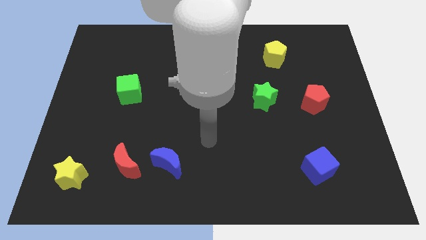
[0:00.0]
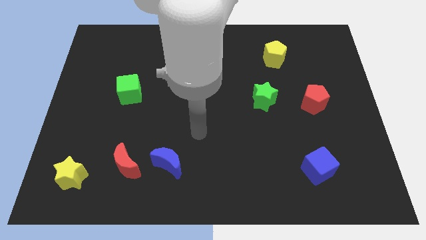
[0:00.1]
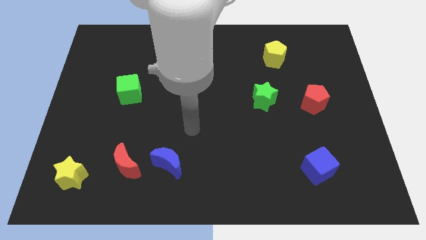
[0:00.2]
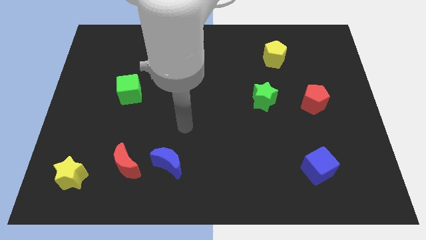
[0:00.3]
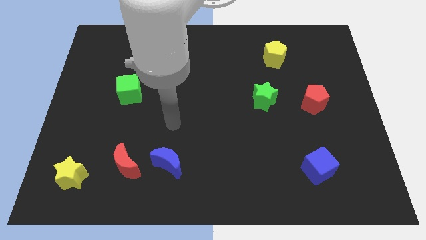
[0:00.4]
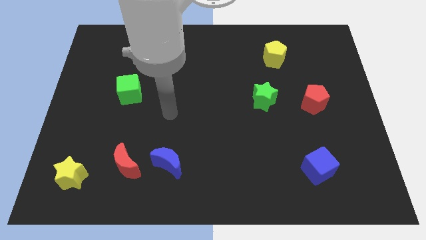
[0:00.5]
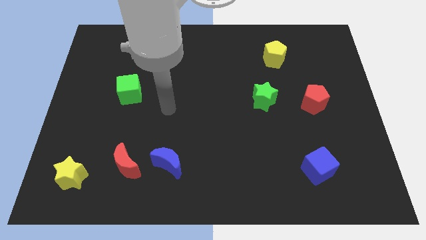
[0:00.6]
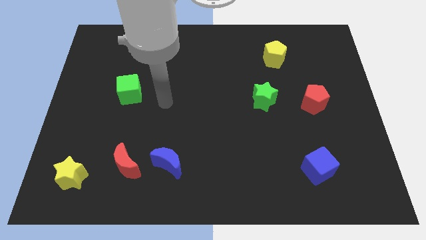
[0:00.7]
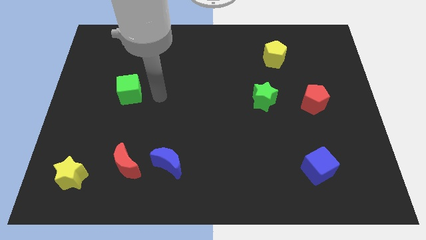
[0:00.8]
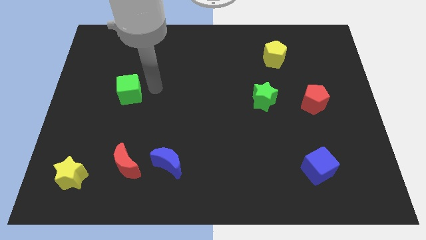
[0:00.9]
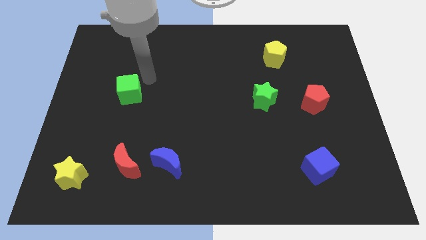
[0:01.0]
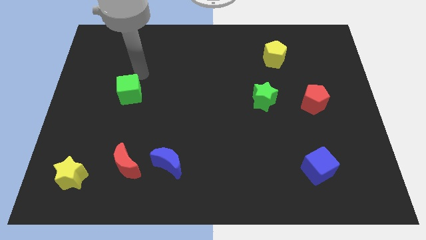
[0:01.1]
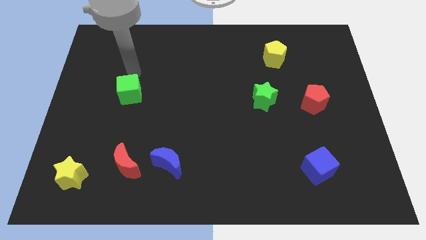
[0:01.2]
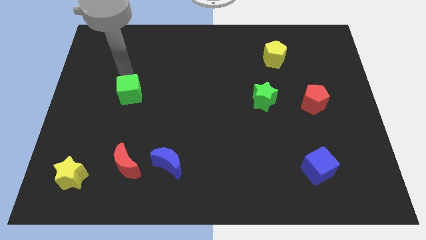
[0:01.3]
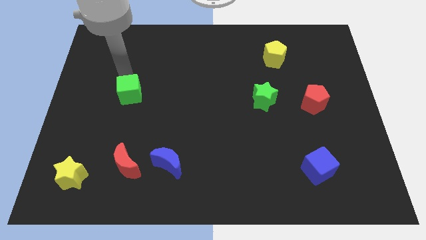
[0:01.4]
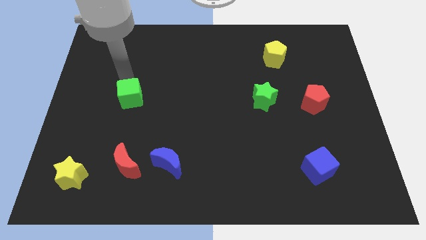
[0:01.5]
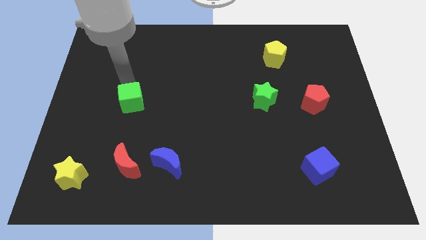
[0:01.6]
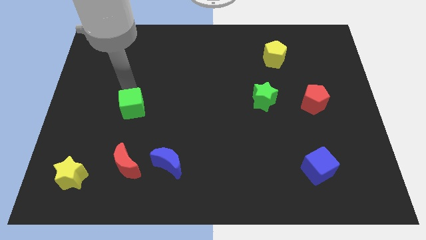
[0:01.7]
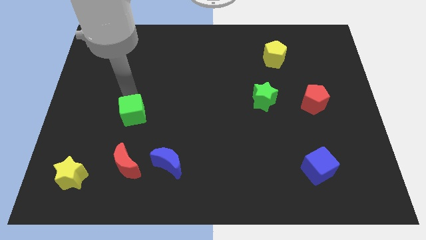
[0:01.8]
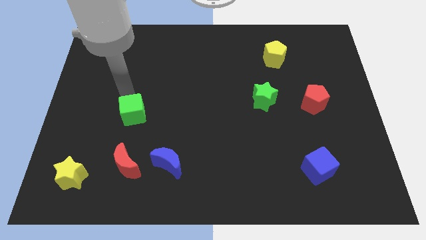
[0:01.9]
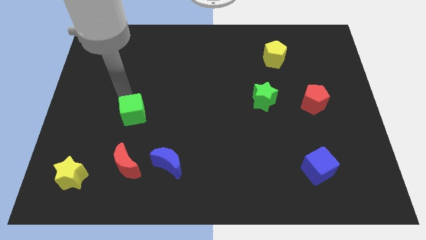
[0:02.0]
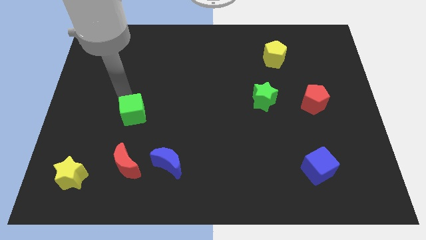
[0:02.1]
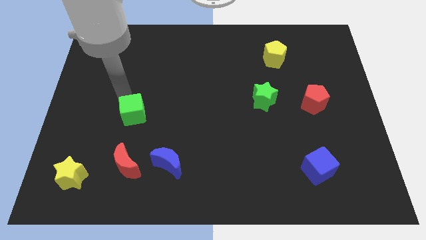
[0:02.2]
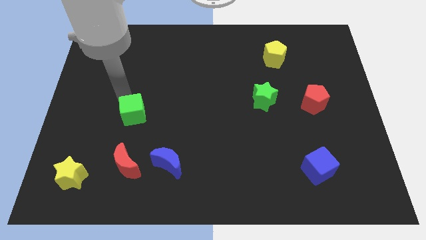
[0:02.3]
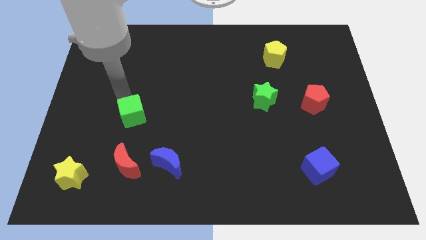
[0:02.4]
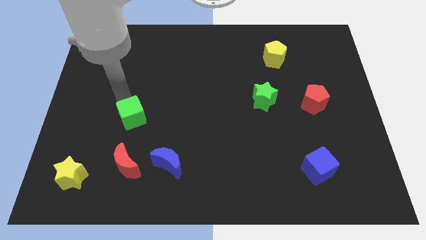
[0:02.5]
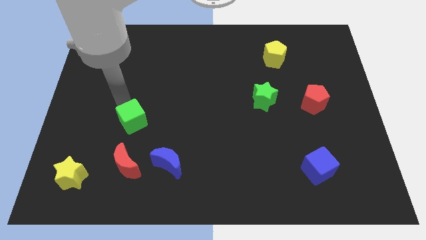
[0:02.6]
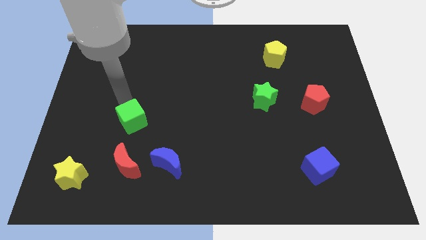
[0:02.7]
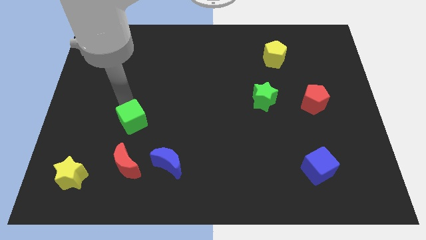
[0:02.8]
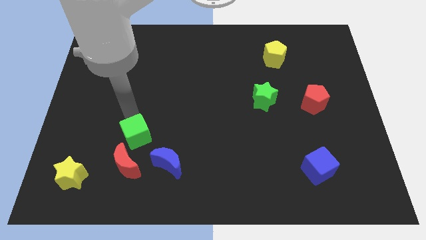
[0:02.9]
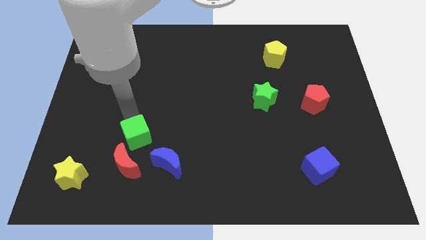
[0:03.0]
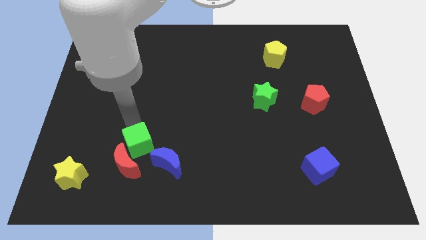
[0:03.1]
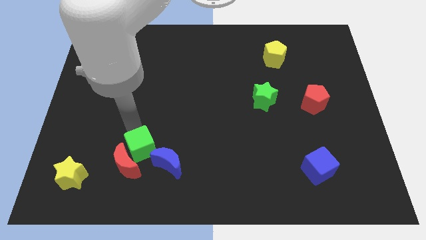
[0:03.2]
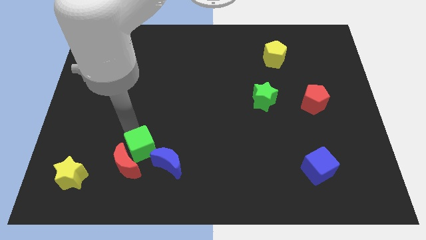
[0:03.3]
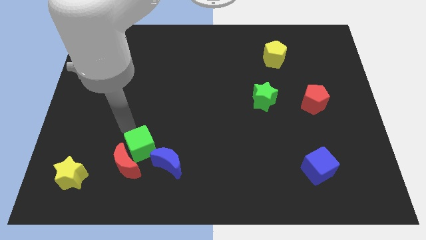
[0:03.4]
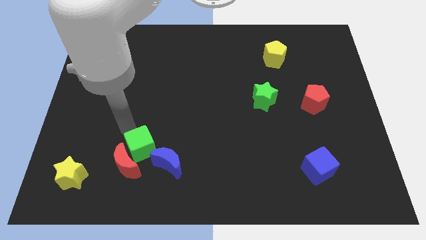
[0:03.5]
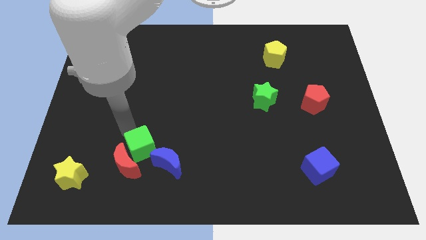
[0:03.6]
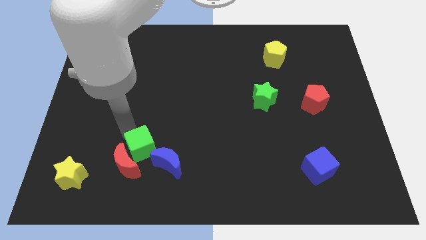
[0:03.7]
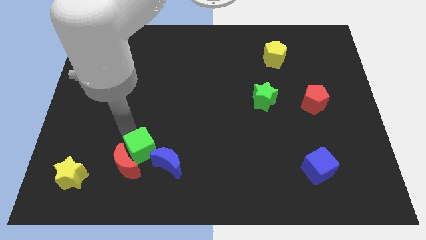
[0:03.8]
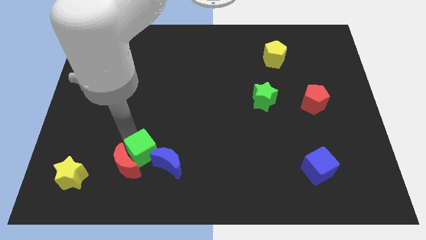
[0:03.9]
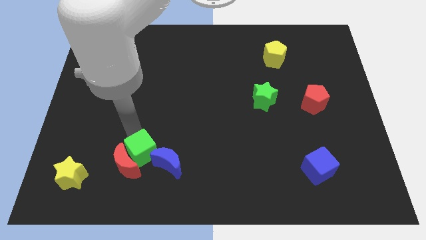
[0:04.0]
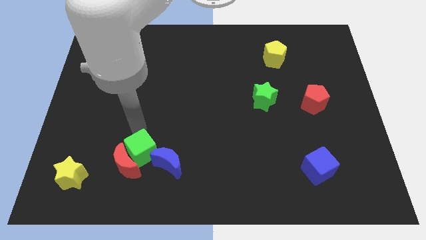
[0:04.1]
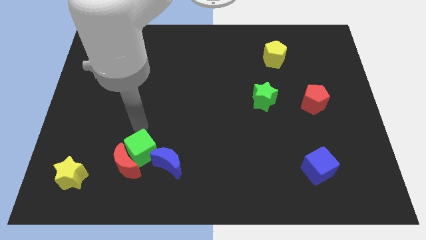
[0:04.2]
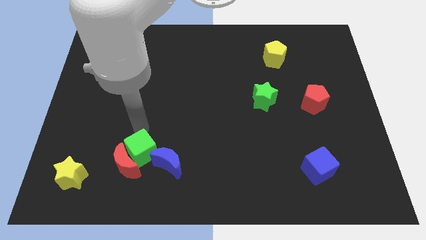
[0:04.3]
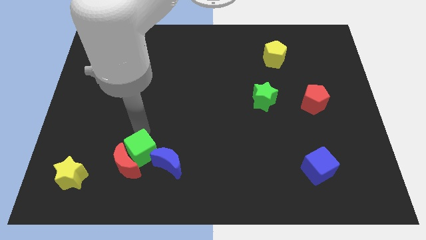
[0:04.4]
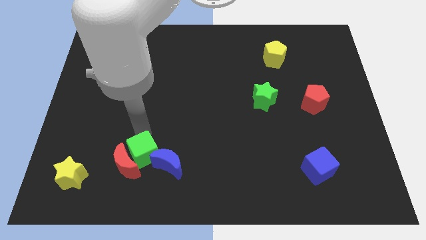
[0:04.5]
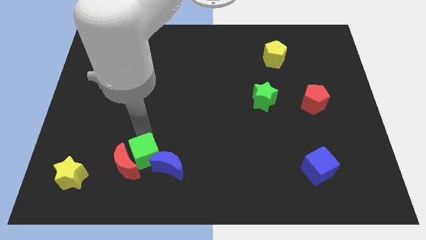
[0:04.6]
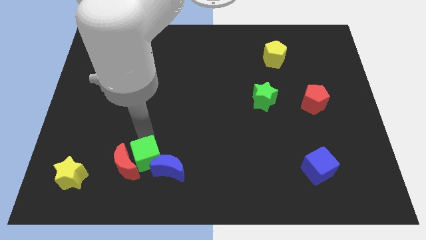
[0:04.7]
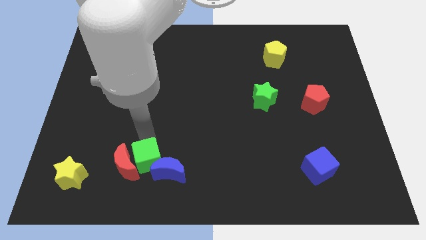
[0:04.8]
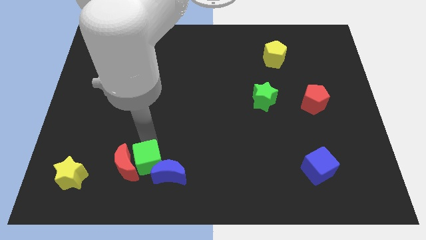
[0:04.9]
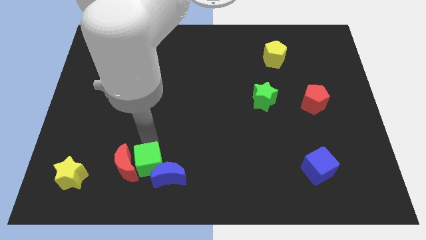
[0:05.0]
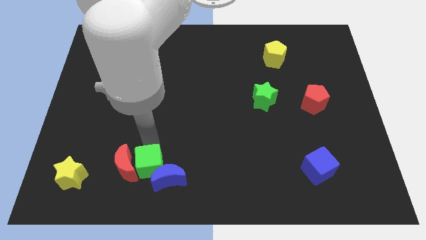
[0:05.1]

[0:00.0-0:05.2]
slide the green cube just right of the yellow star

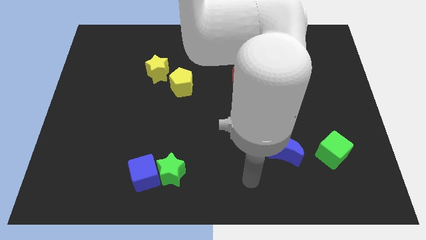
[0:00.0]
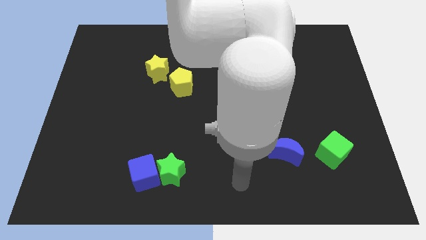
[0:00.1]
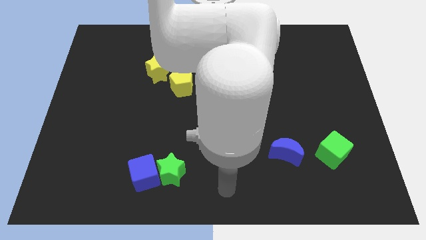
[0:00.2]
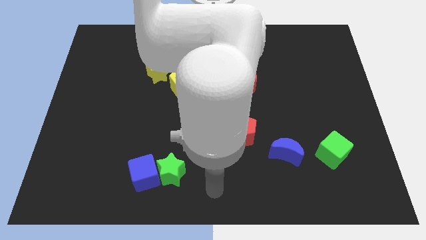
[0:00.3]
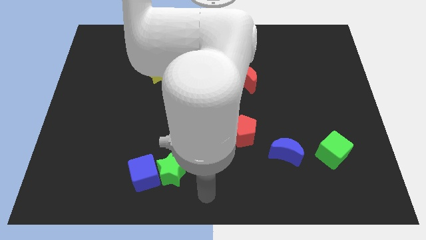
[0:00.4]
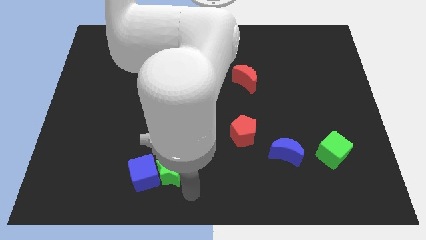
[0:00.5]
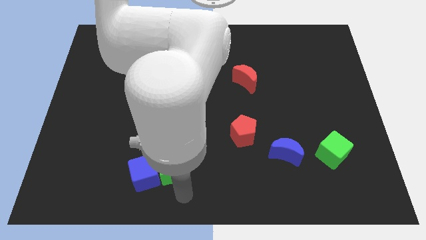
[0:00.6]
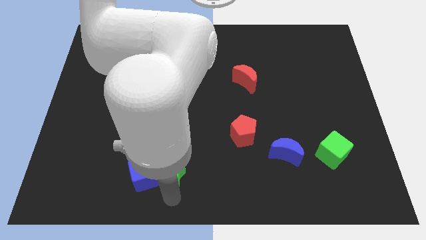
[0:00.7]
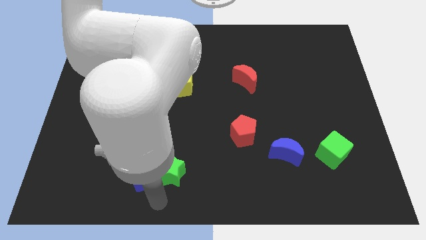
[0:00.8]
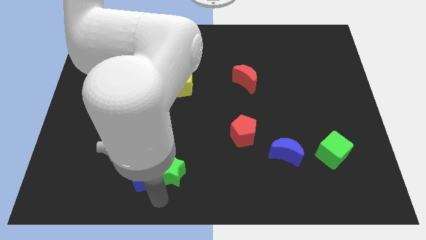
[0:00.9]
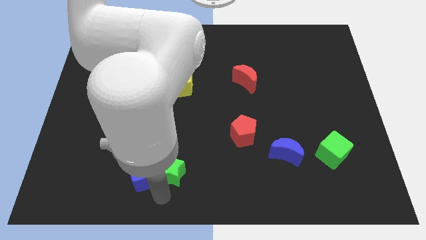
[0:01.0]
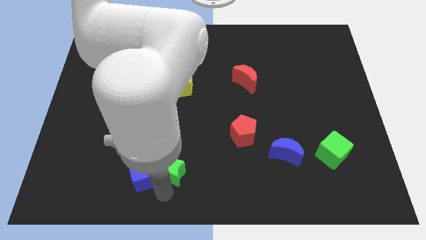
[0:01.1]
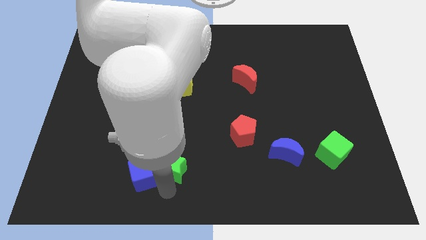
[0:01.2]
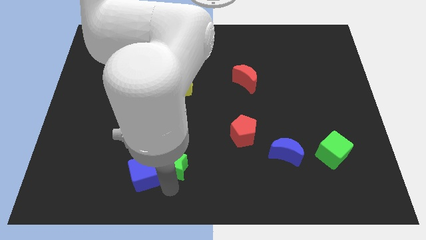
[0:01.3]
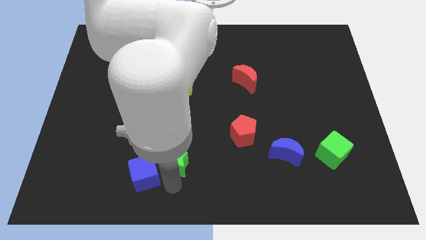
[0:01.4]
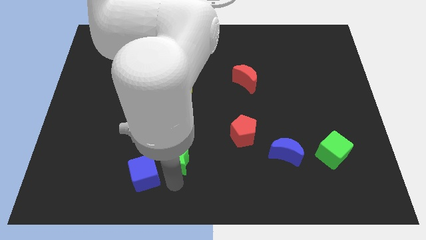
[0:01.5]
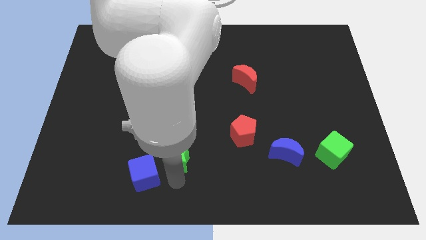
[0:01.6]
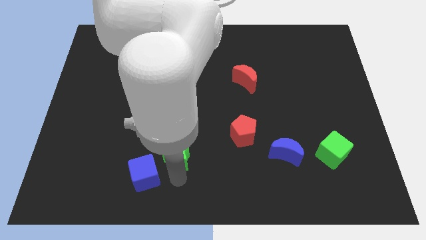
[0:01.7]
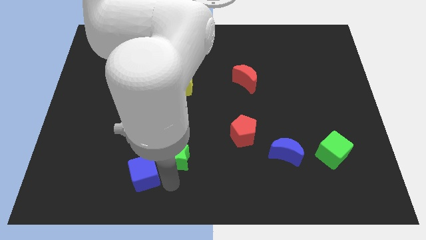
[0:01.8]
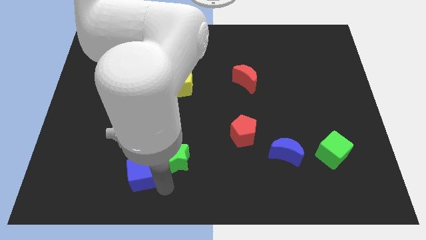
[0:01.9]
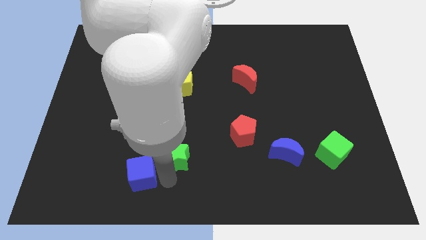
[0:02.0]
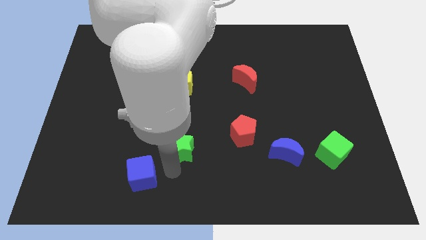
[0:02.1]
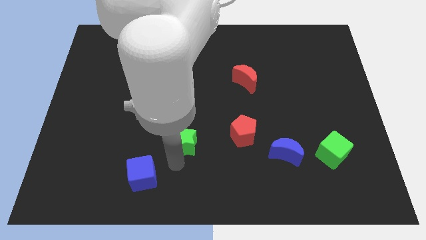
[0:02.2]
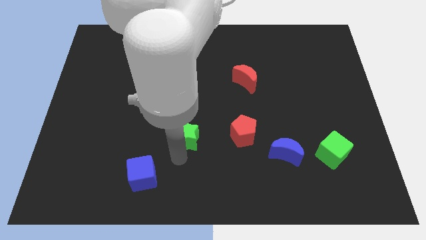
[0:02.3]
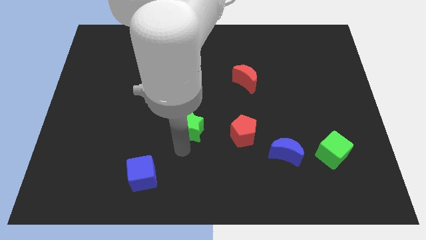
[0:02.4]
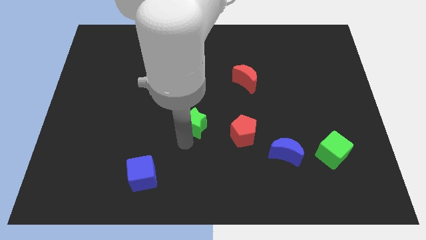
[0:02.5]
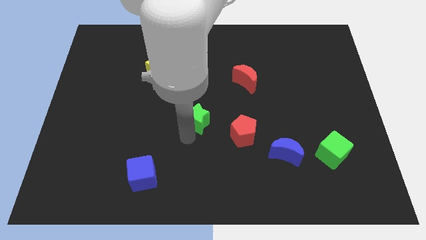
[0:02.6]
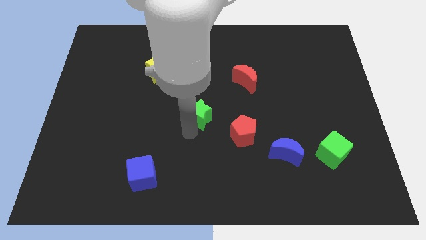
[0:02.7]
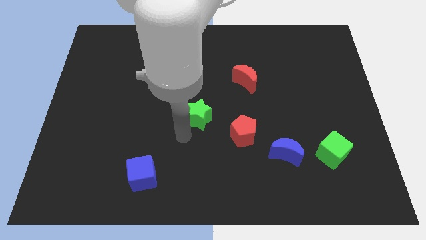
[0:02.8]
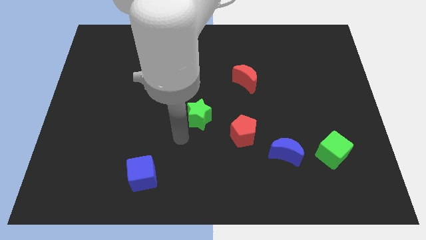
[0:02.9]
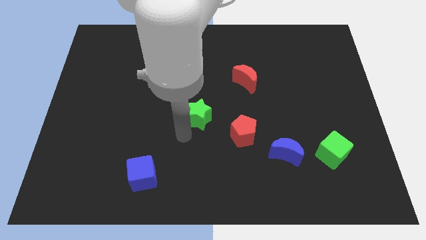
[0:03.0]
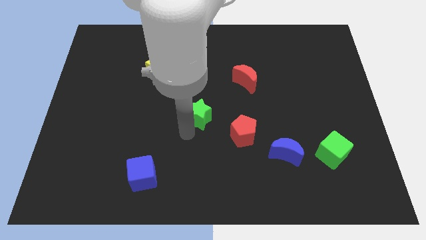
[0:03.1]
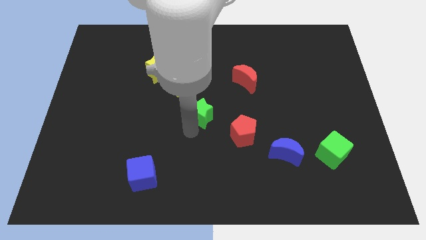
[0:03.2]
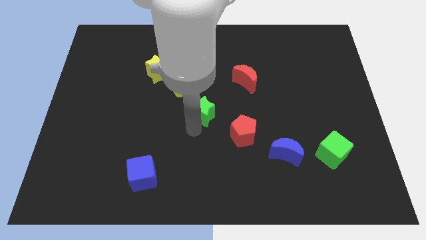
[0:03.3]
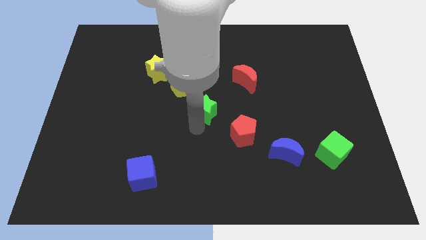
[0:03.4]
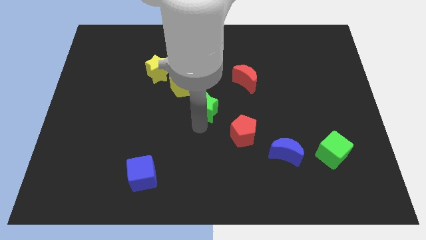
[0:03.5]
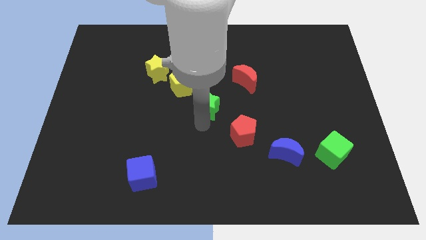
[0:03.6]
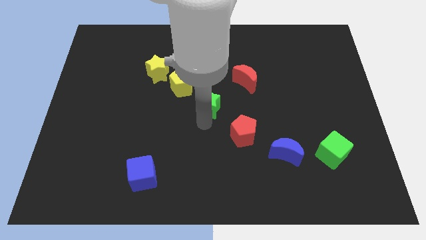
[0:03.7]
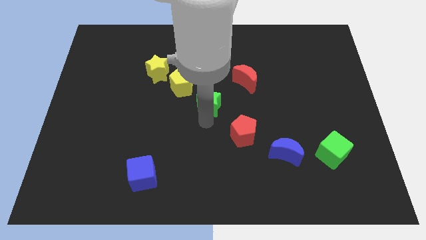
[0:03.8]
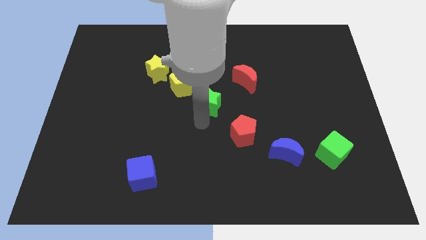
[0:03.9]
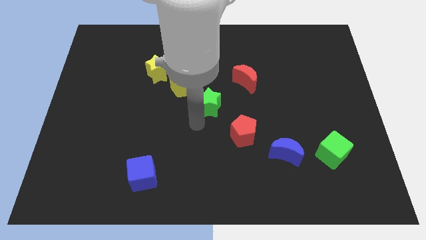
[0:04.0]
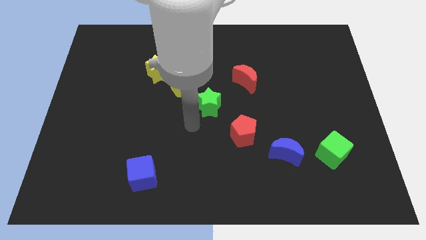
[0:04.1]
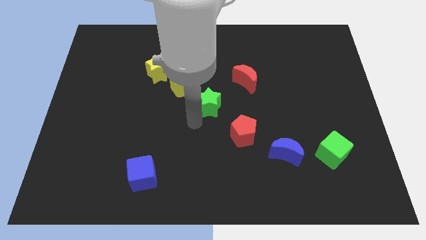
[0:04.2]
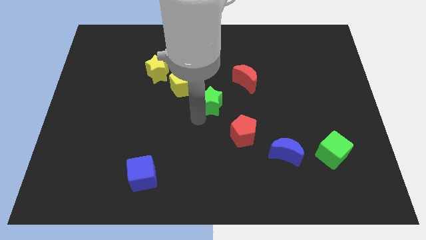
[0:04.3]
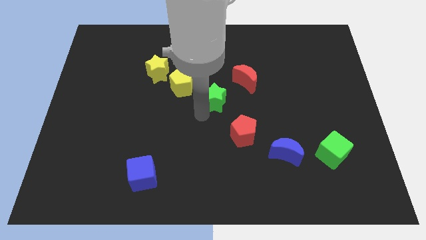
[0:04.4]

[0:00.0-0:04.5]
push the green star right of the yellow pentagon
